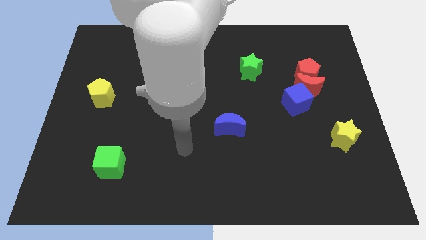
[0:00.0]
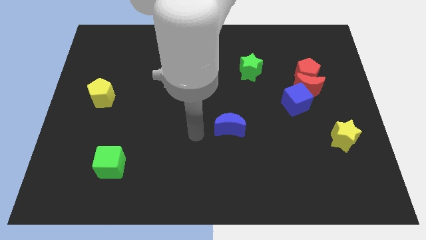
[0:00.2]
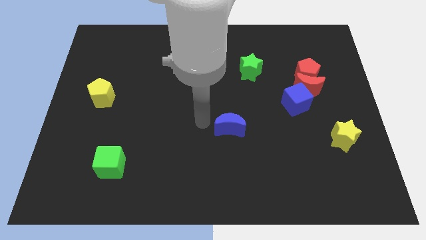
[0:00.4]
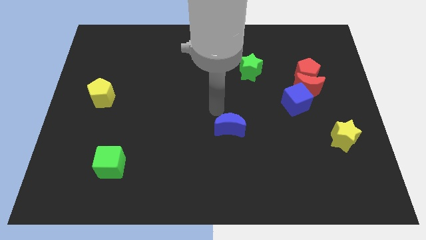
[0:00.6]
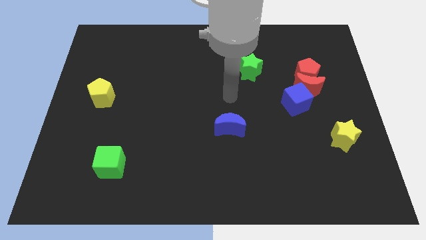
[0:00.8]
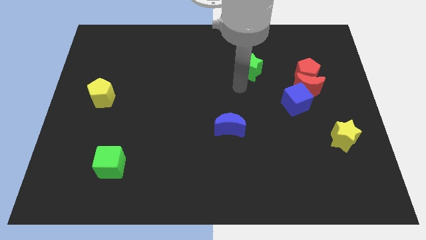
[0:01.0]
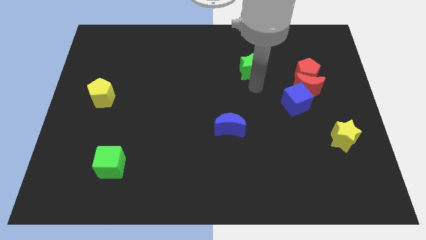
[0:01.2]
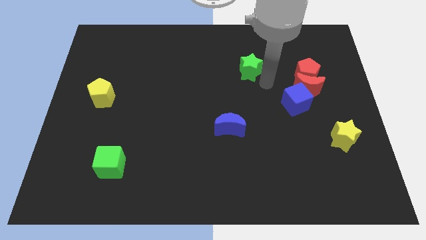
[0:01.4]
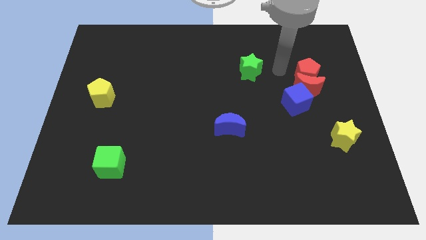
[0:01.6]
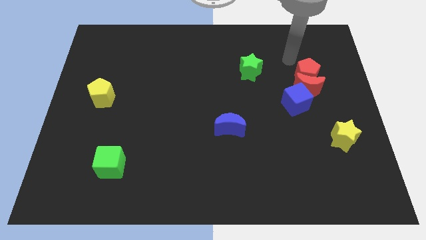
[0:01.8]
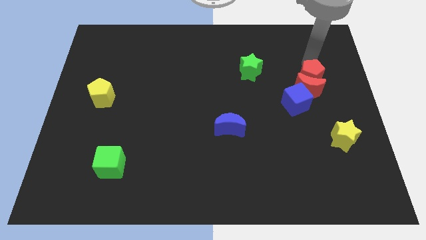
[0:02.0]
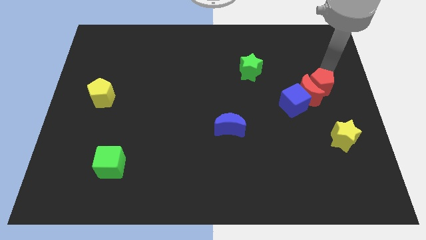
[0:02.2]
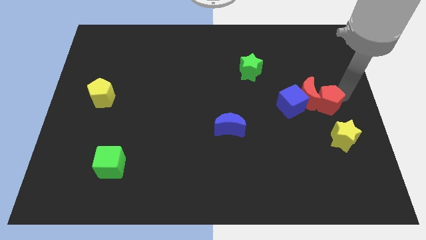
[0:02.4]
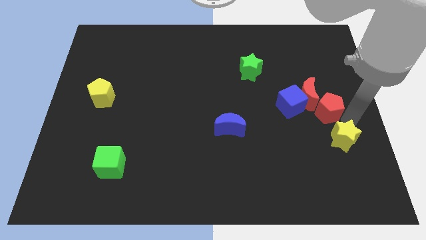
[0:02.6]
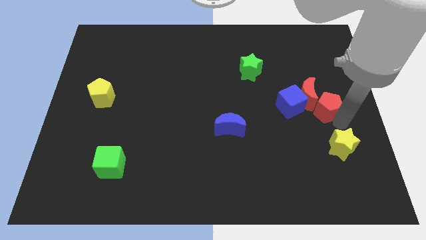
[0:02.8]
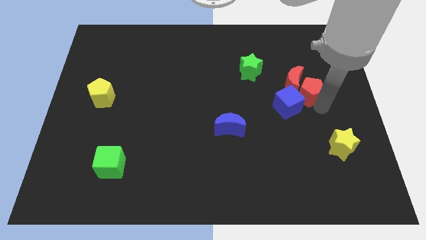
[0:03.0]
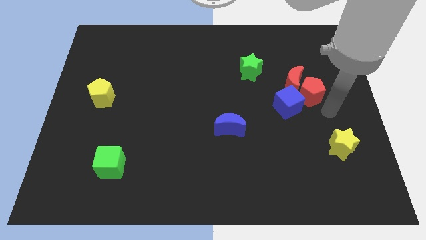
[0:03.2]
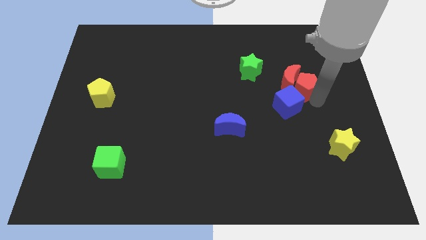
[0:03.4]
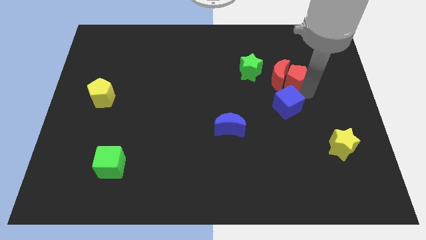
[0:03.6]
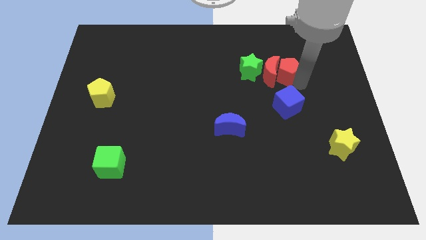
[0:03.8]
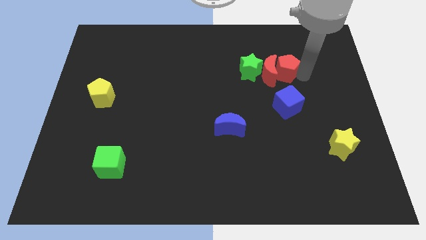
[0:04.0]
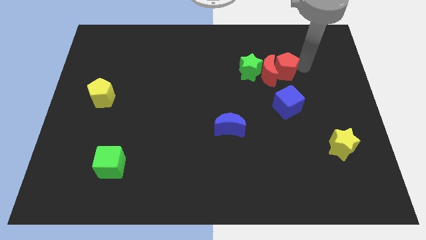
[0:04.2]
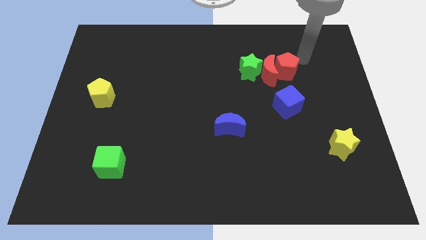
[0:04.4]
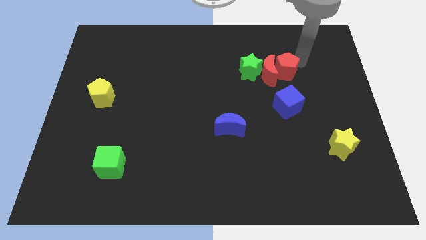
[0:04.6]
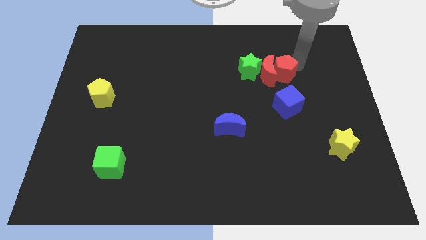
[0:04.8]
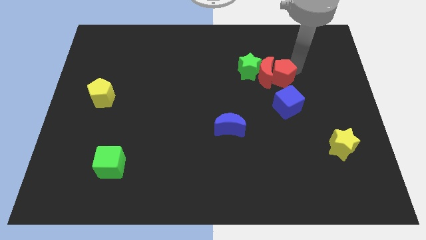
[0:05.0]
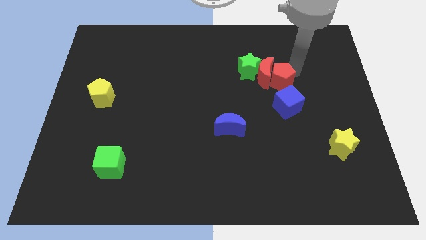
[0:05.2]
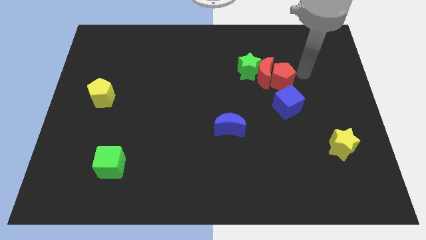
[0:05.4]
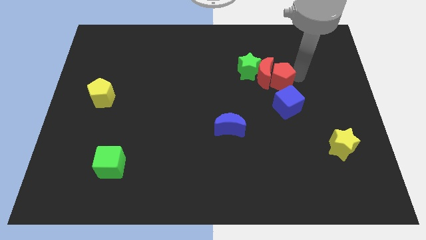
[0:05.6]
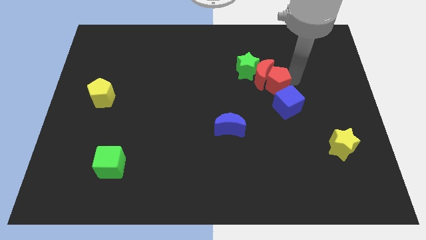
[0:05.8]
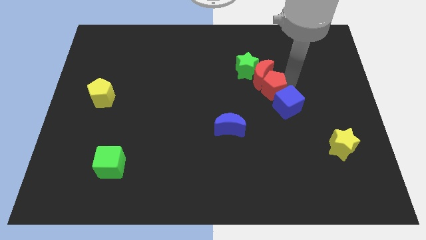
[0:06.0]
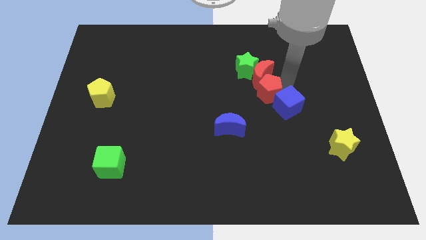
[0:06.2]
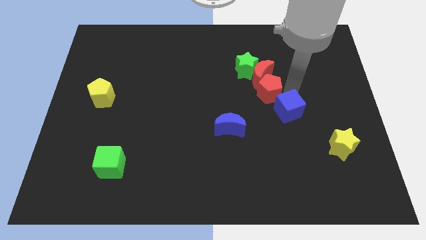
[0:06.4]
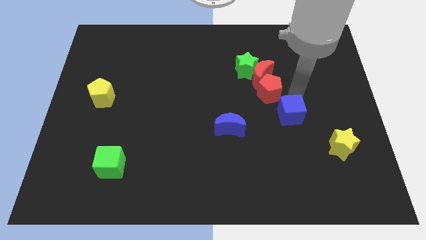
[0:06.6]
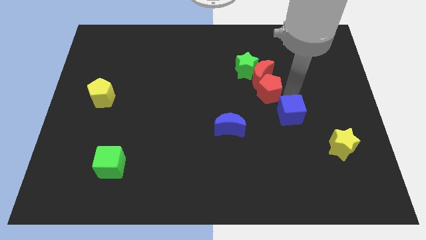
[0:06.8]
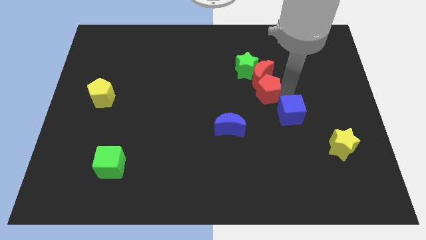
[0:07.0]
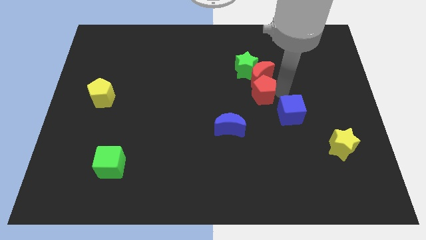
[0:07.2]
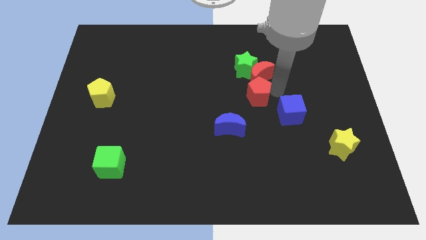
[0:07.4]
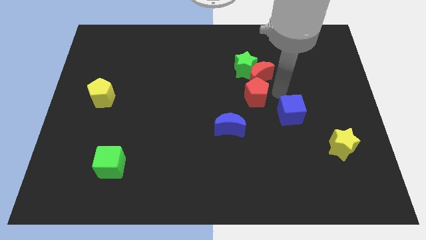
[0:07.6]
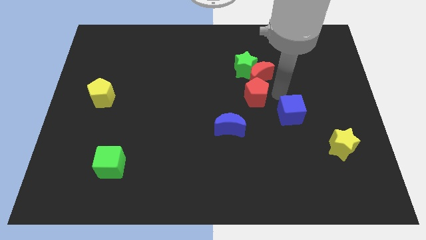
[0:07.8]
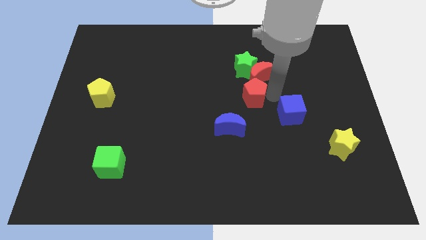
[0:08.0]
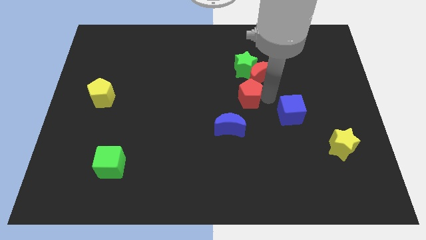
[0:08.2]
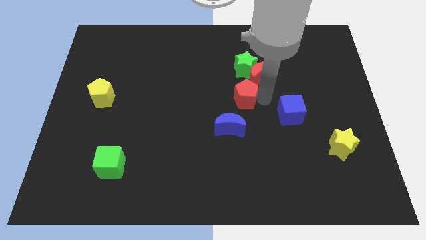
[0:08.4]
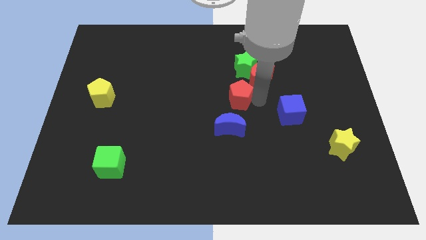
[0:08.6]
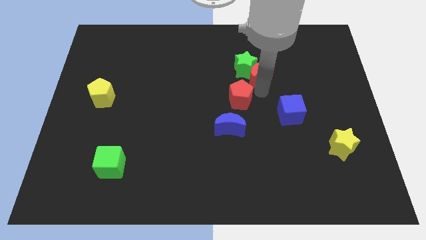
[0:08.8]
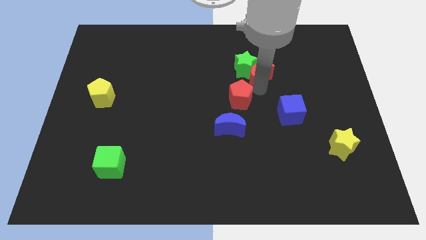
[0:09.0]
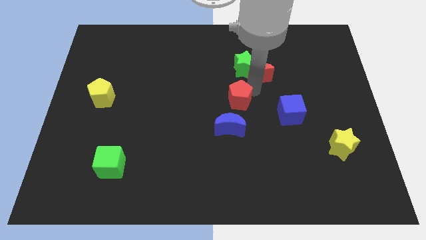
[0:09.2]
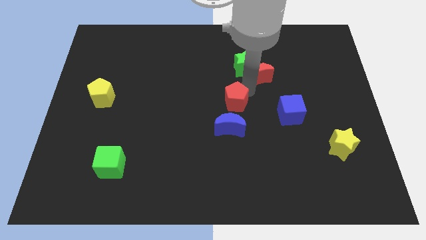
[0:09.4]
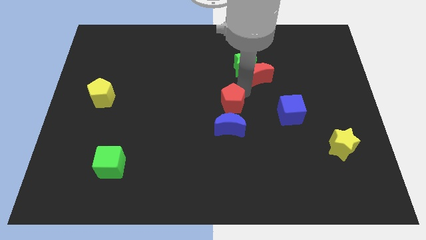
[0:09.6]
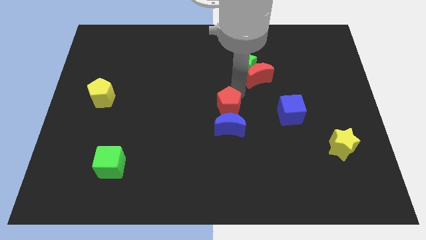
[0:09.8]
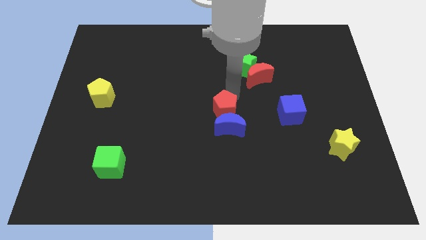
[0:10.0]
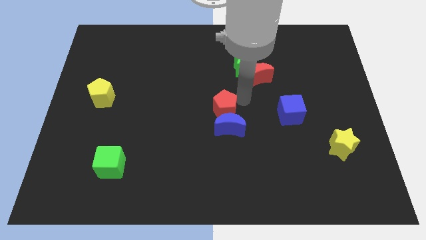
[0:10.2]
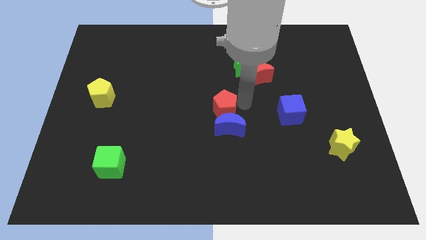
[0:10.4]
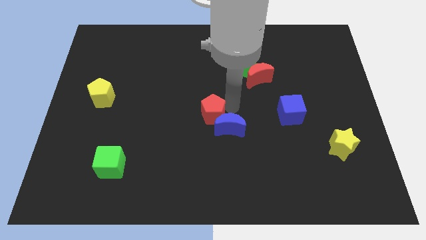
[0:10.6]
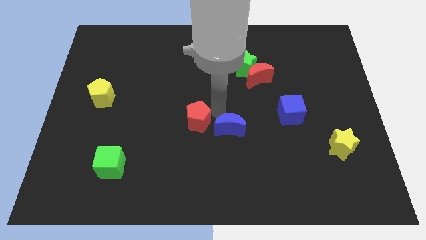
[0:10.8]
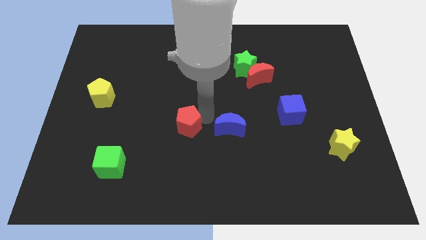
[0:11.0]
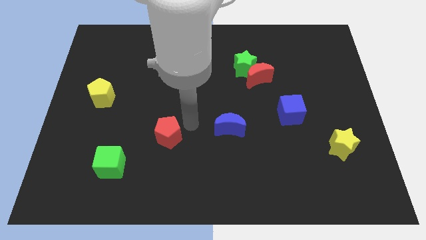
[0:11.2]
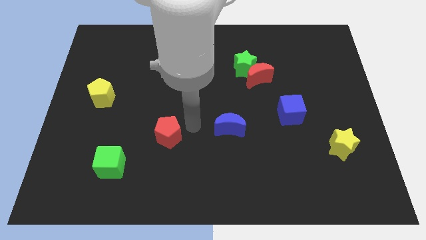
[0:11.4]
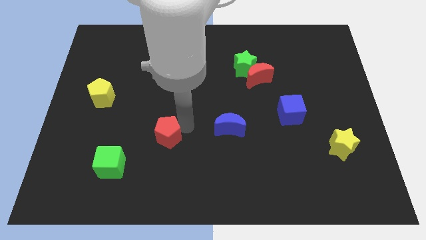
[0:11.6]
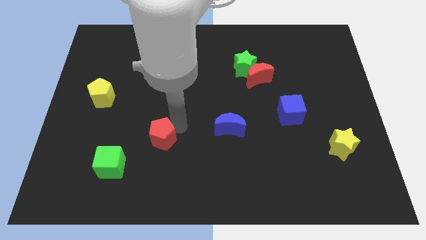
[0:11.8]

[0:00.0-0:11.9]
push the red pentagon diagonally up and to the right of the green cube

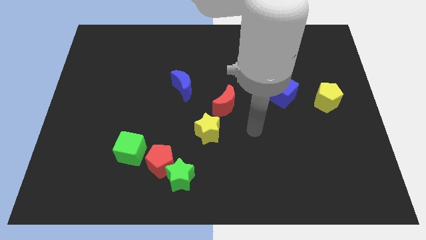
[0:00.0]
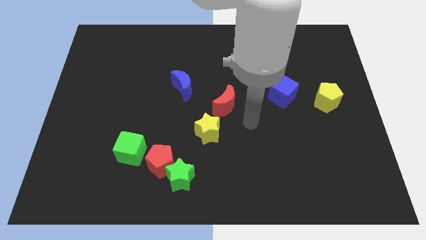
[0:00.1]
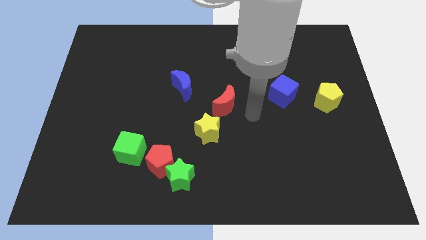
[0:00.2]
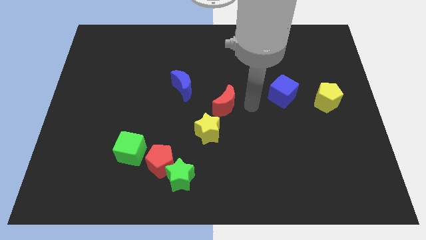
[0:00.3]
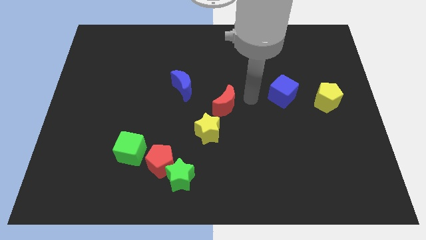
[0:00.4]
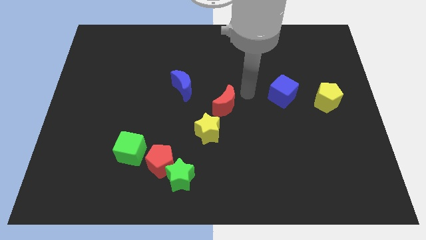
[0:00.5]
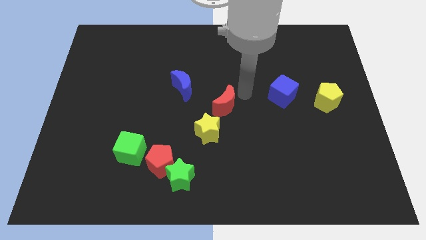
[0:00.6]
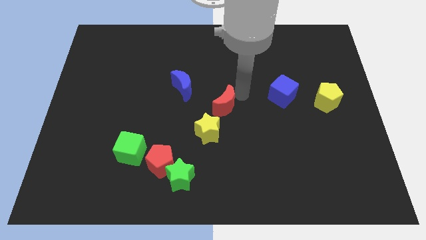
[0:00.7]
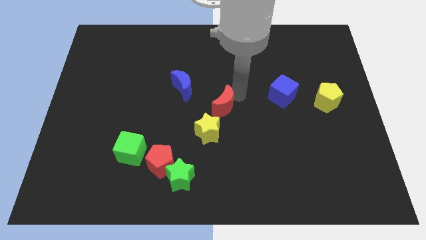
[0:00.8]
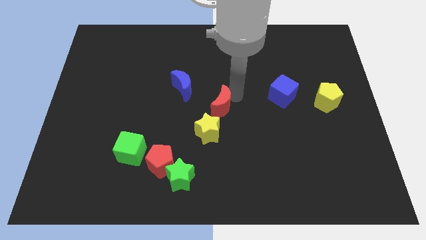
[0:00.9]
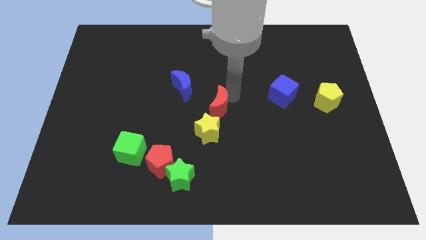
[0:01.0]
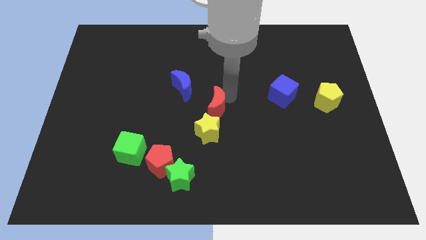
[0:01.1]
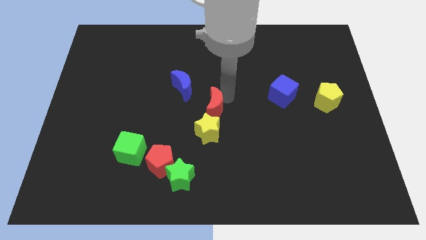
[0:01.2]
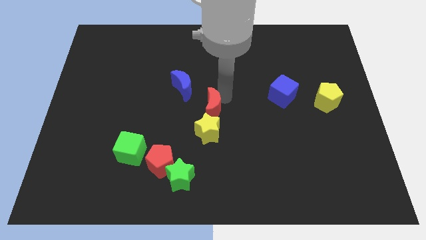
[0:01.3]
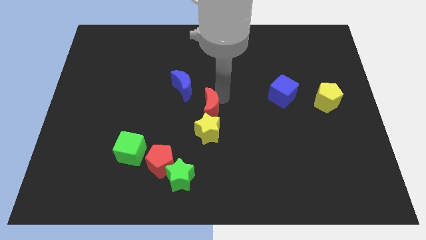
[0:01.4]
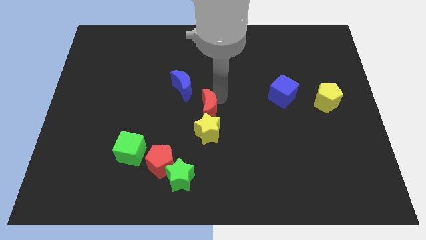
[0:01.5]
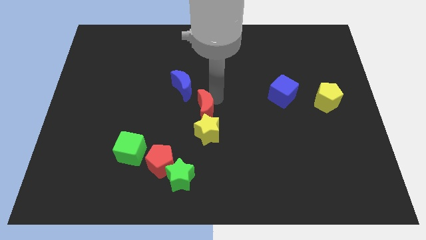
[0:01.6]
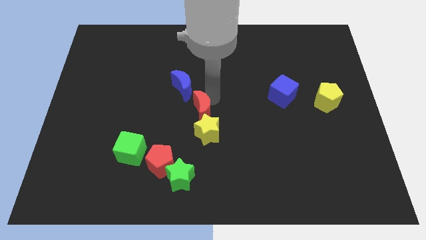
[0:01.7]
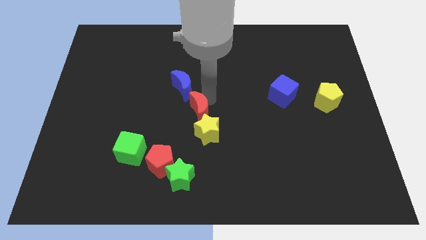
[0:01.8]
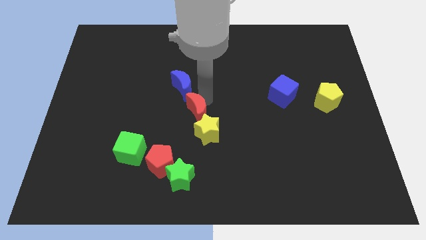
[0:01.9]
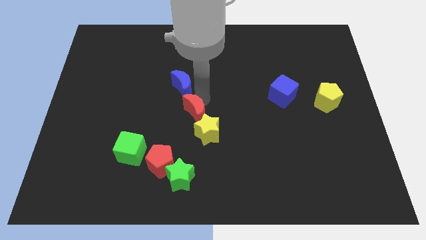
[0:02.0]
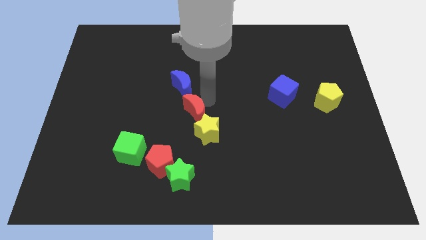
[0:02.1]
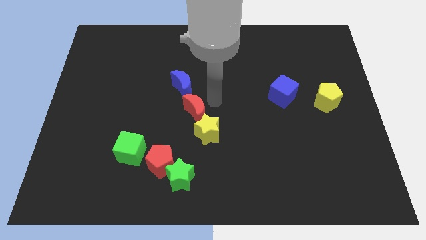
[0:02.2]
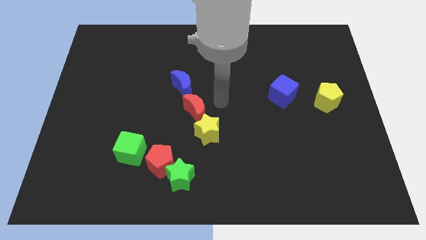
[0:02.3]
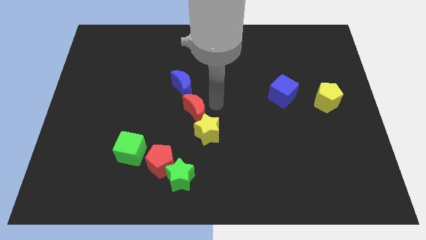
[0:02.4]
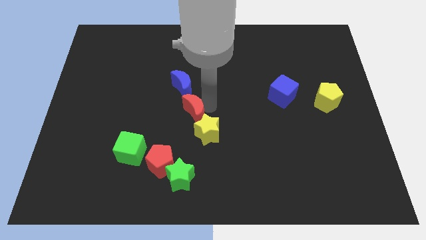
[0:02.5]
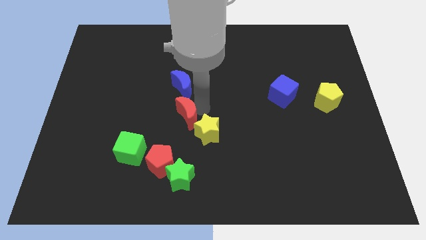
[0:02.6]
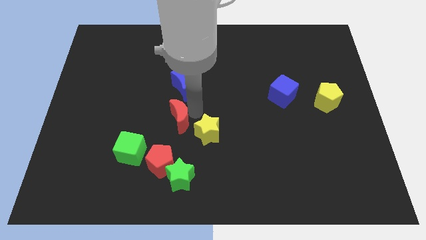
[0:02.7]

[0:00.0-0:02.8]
move the red moon to the top side of the red pentagon
